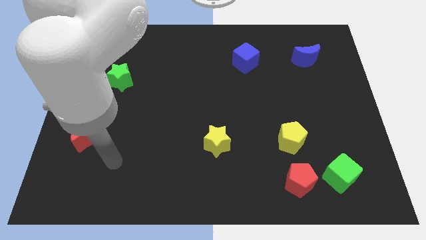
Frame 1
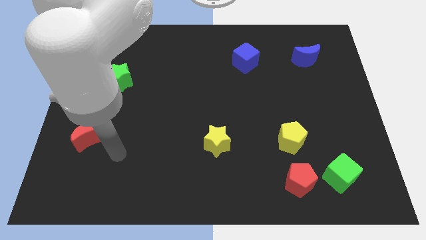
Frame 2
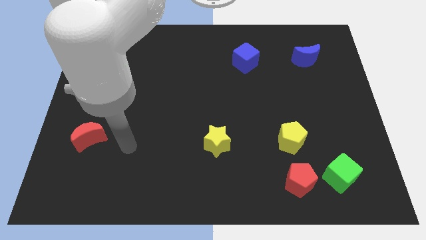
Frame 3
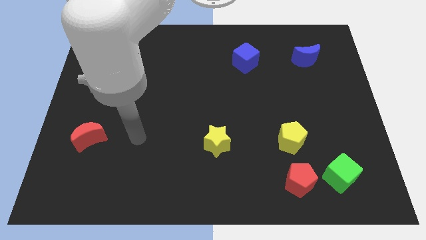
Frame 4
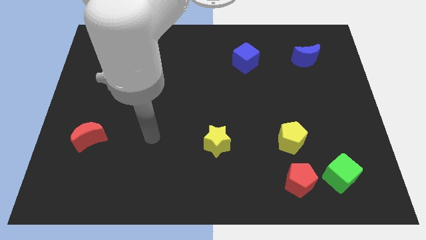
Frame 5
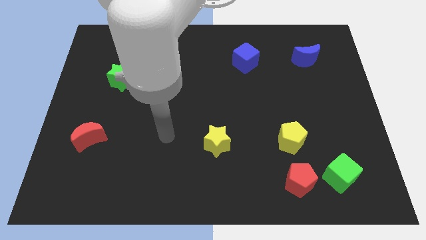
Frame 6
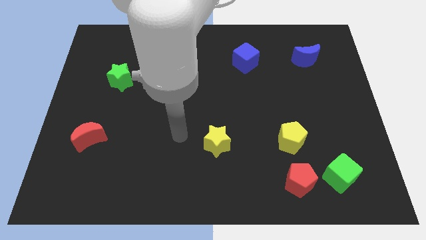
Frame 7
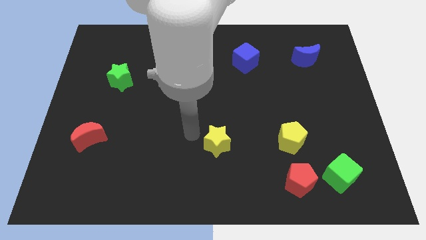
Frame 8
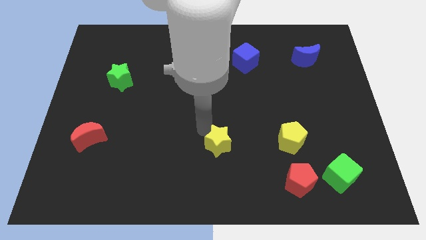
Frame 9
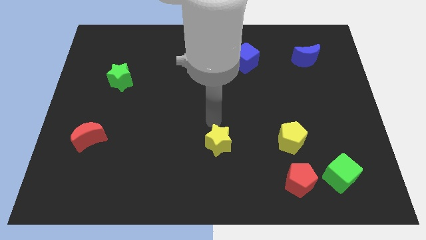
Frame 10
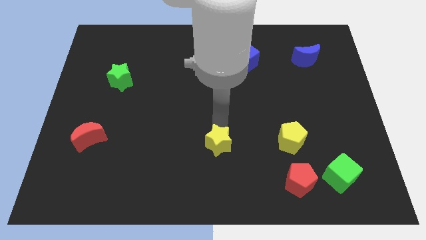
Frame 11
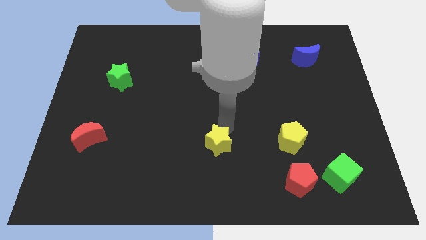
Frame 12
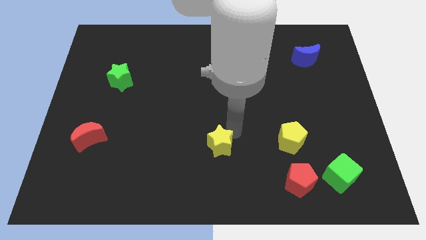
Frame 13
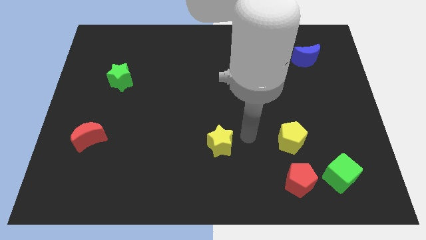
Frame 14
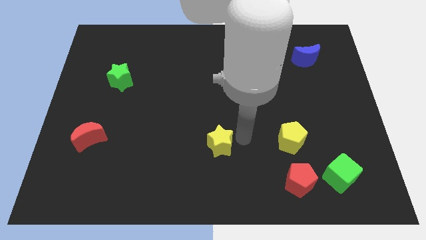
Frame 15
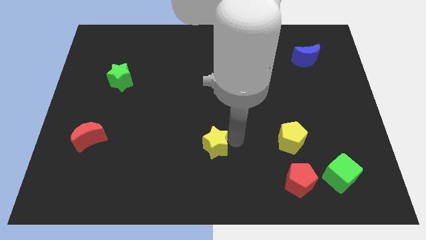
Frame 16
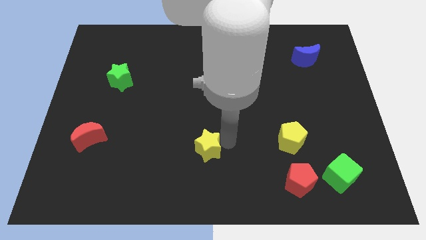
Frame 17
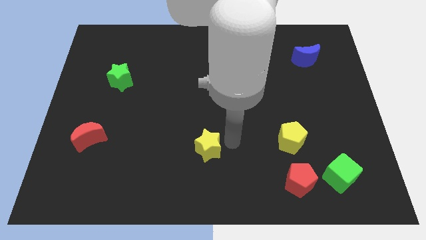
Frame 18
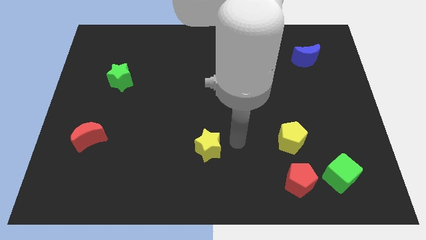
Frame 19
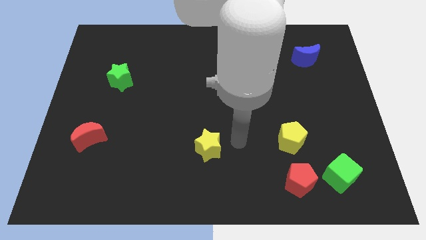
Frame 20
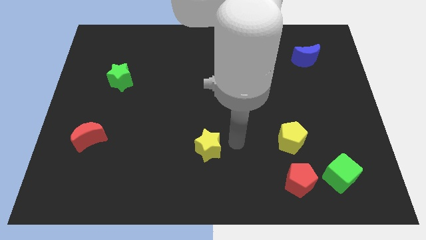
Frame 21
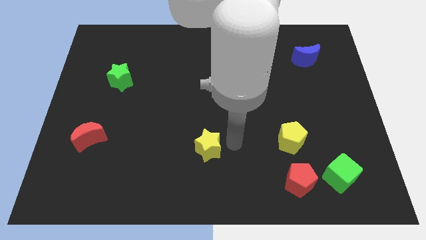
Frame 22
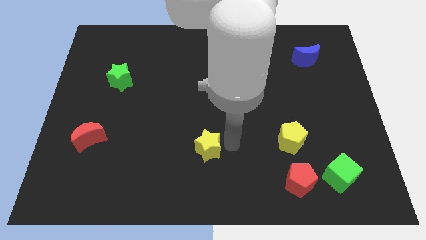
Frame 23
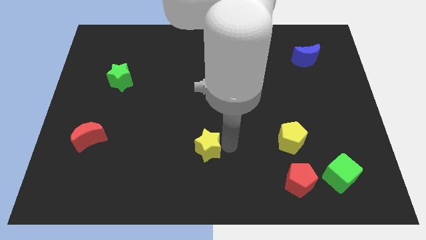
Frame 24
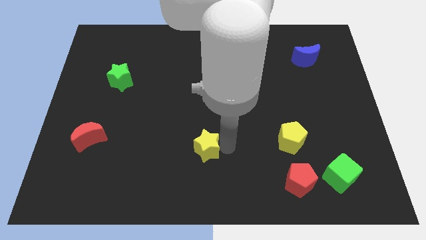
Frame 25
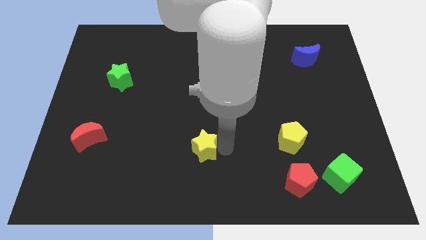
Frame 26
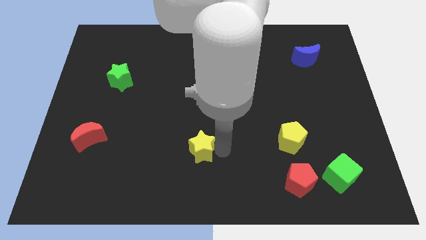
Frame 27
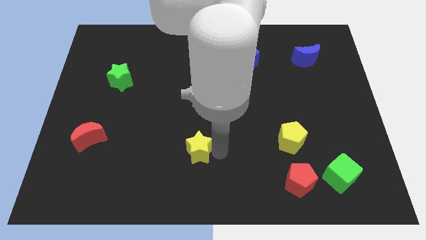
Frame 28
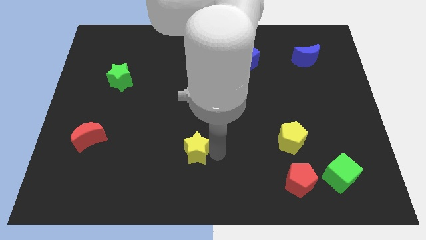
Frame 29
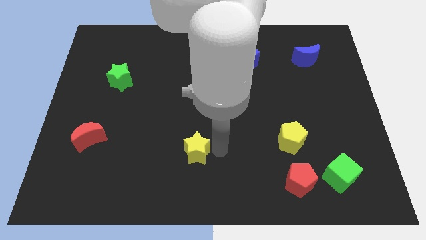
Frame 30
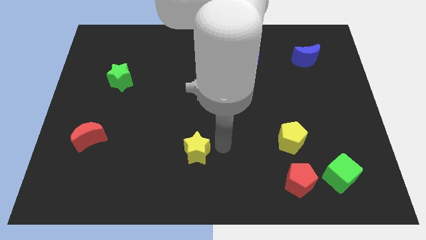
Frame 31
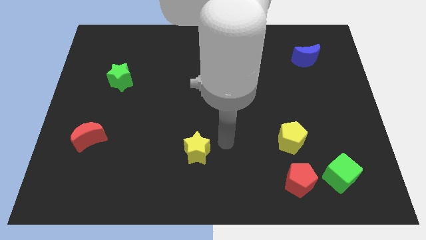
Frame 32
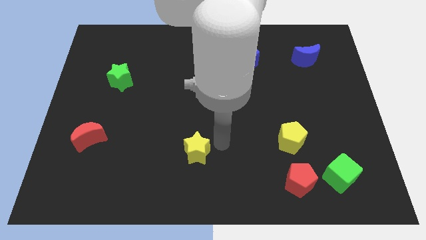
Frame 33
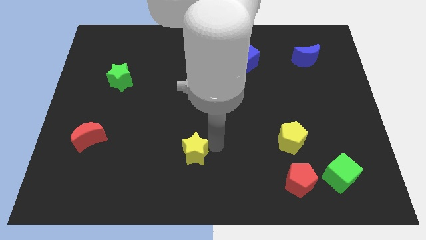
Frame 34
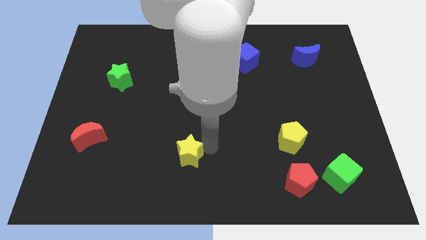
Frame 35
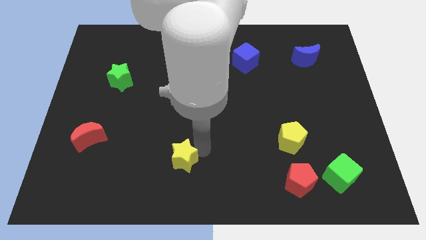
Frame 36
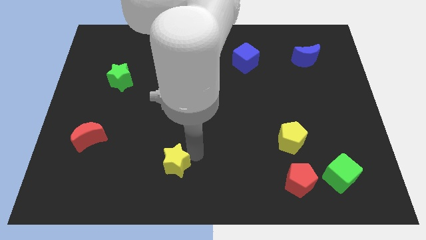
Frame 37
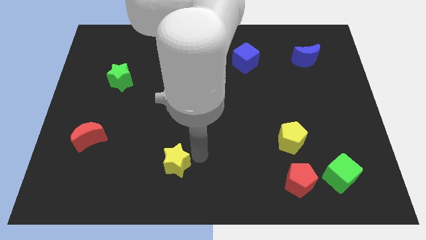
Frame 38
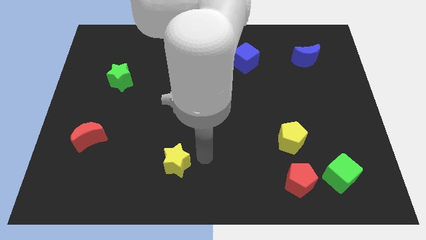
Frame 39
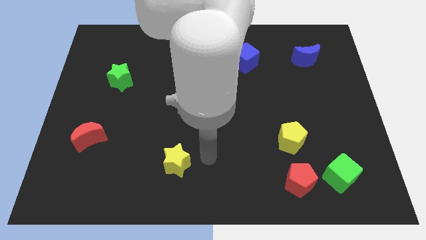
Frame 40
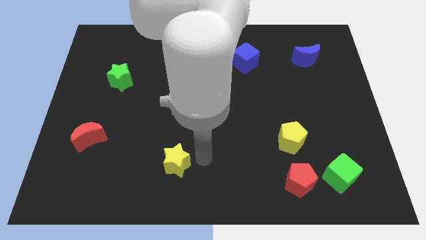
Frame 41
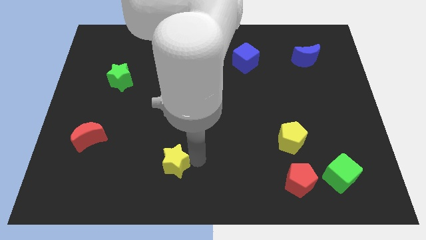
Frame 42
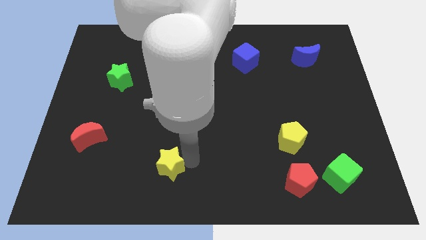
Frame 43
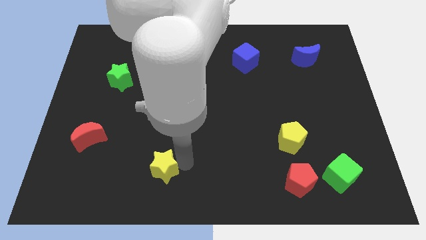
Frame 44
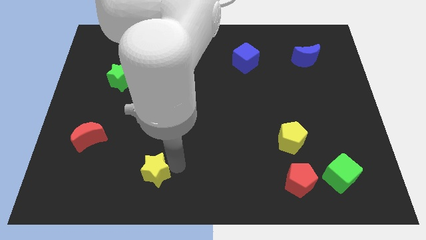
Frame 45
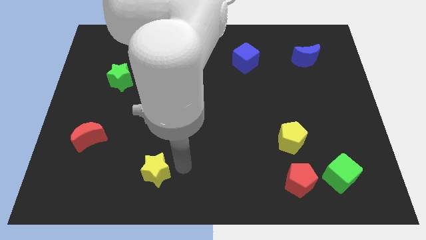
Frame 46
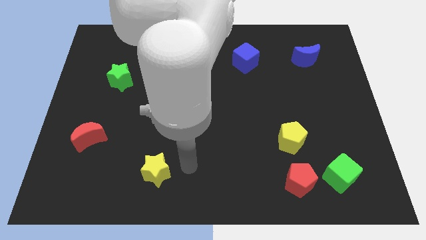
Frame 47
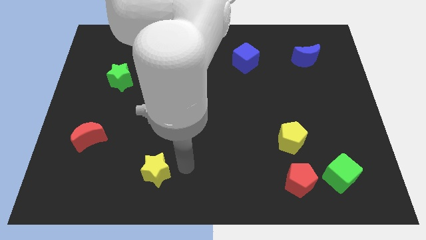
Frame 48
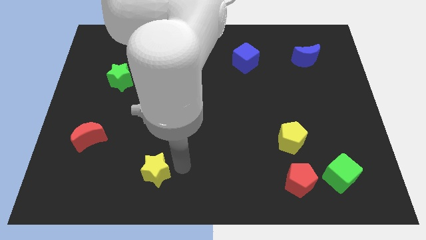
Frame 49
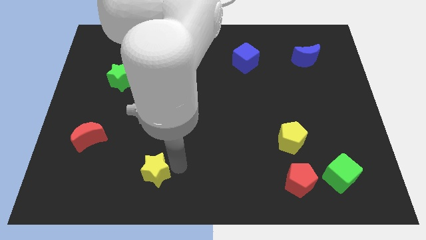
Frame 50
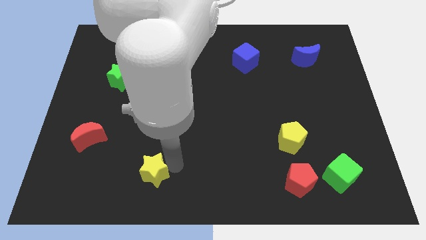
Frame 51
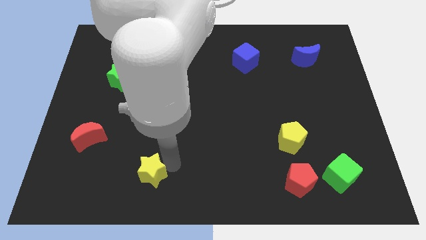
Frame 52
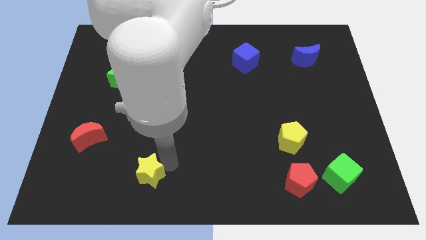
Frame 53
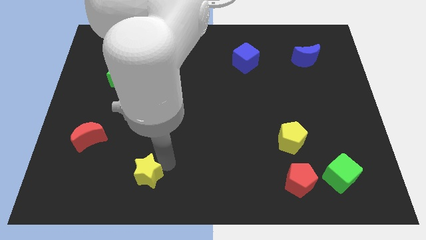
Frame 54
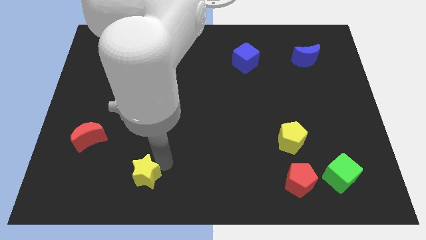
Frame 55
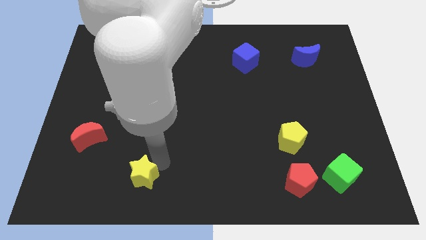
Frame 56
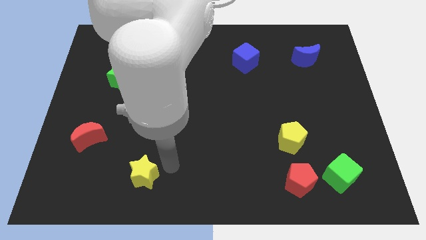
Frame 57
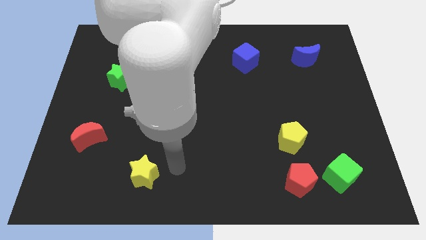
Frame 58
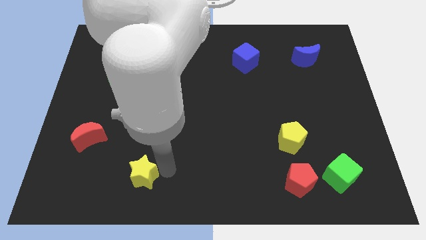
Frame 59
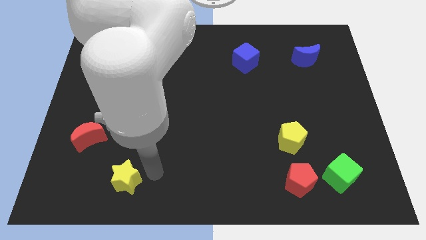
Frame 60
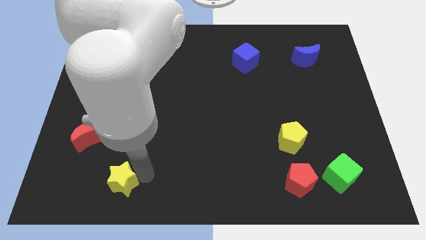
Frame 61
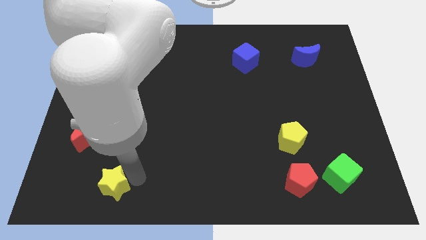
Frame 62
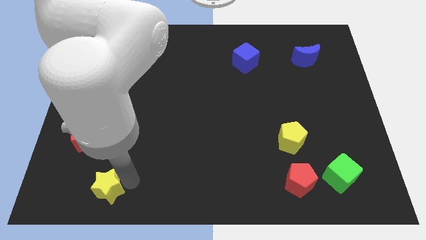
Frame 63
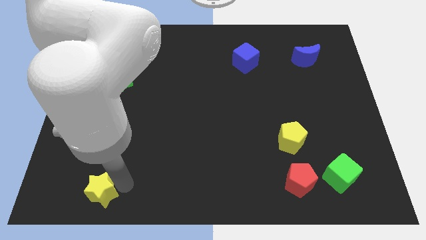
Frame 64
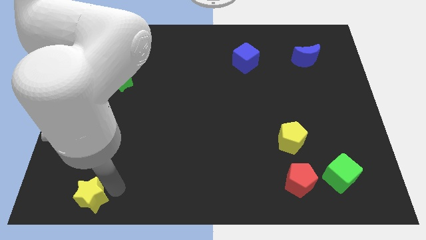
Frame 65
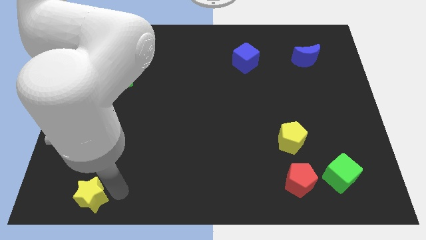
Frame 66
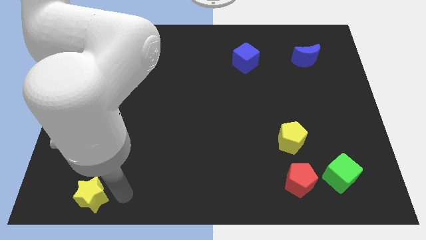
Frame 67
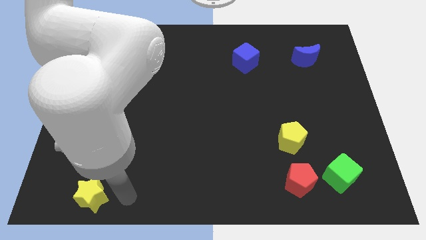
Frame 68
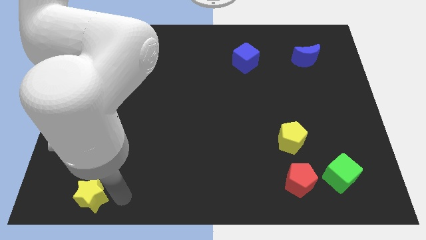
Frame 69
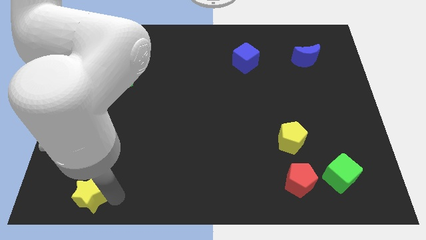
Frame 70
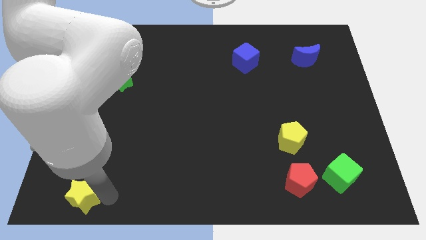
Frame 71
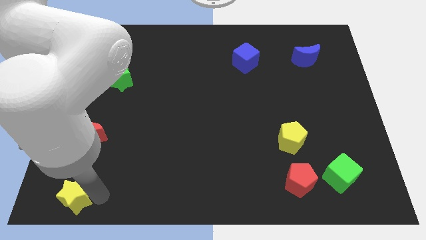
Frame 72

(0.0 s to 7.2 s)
push the yellow star to the bottom left
